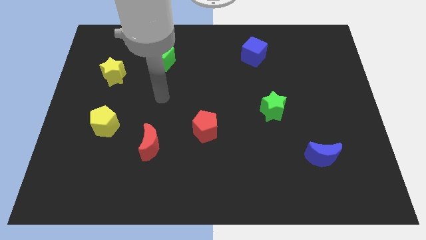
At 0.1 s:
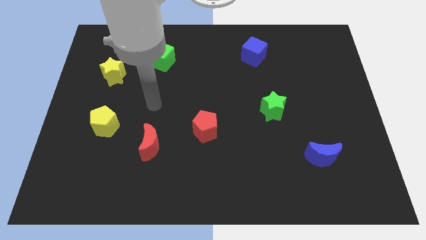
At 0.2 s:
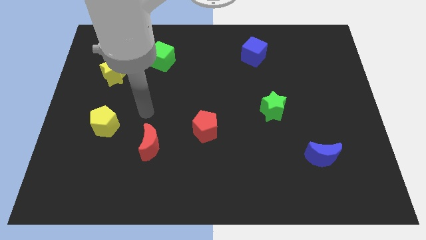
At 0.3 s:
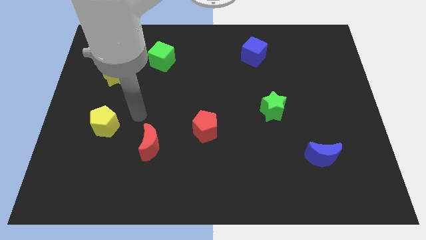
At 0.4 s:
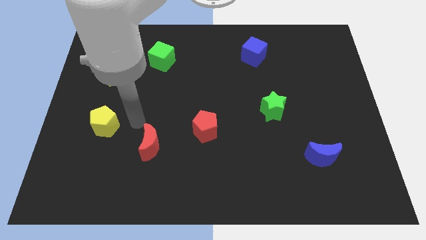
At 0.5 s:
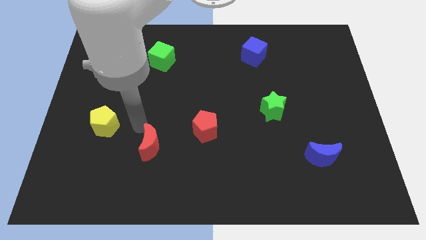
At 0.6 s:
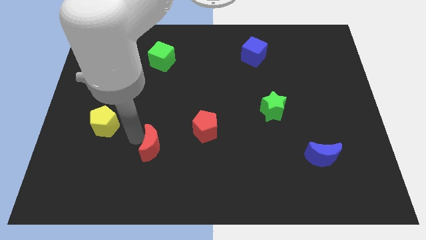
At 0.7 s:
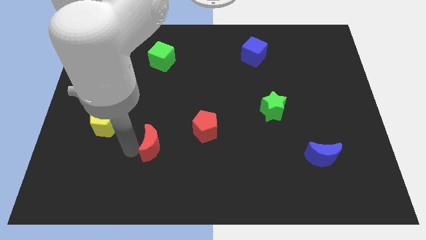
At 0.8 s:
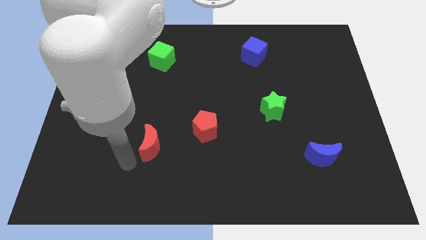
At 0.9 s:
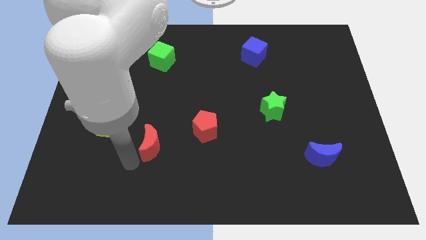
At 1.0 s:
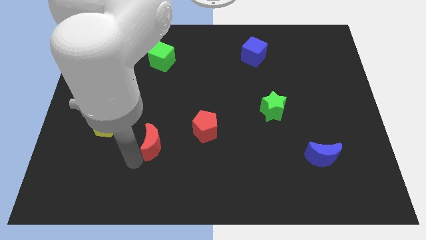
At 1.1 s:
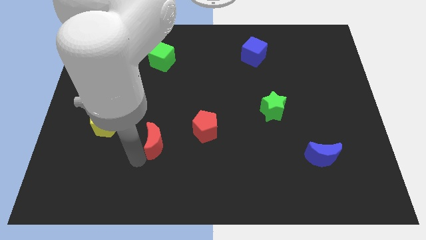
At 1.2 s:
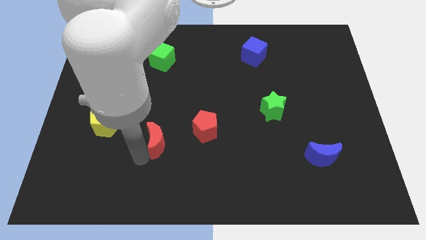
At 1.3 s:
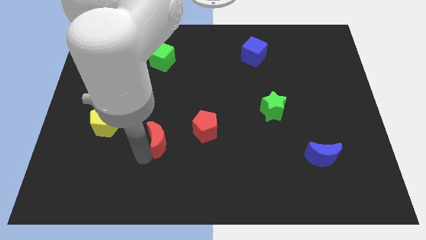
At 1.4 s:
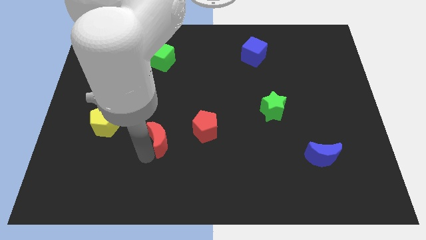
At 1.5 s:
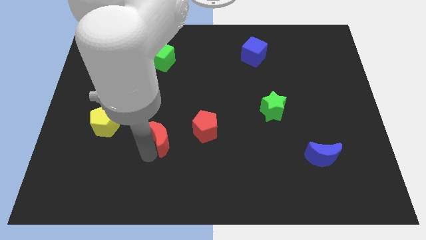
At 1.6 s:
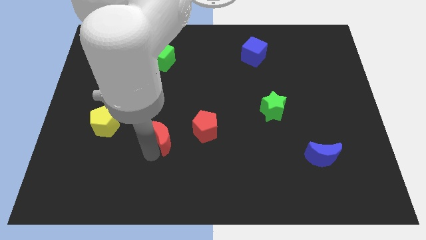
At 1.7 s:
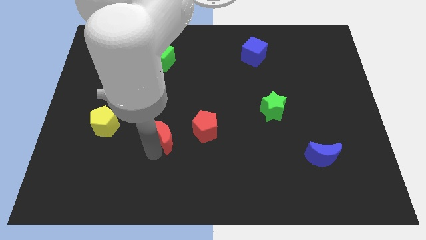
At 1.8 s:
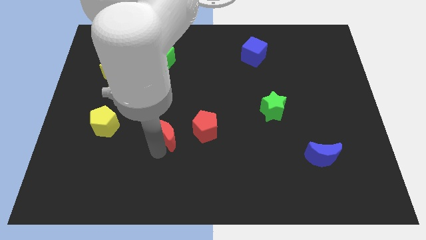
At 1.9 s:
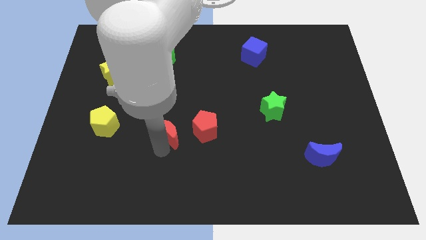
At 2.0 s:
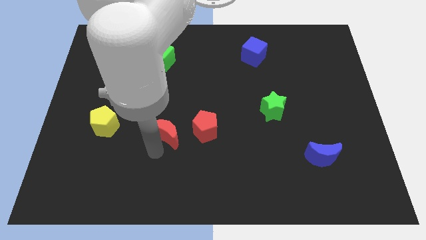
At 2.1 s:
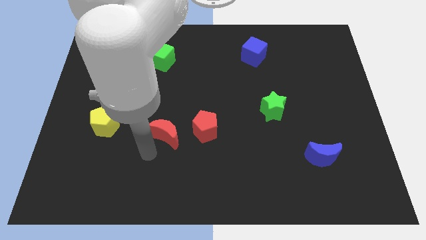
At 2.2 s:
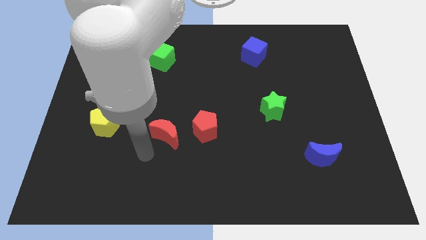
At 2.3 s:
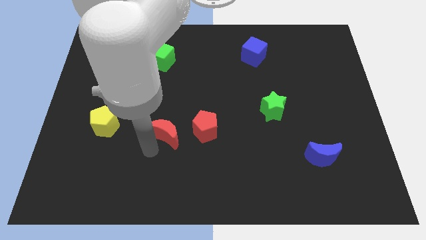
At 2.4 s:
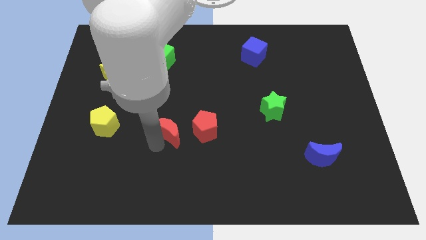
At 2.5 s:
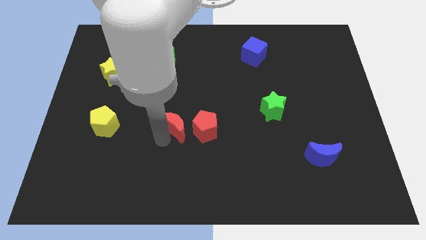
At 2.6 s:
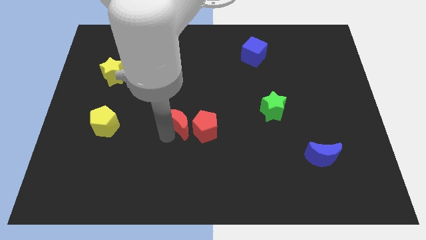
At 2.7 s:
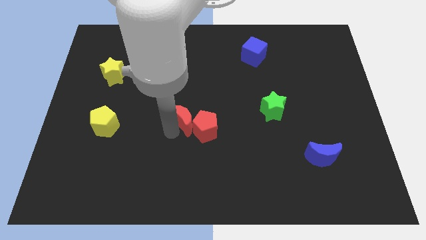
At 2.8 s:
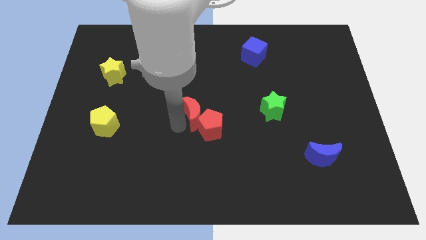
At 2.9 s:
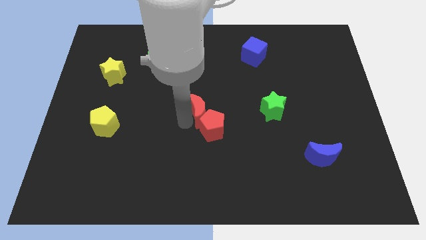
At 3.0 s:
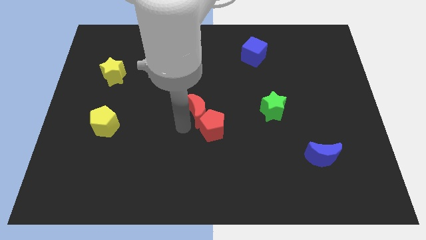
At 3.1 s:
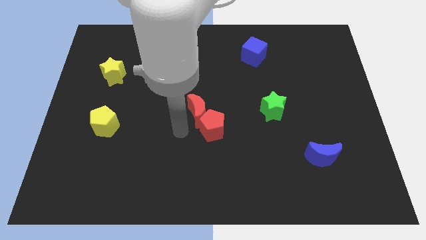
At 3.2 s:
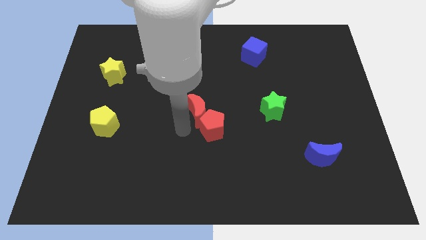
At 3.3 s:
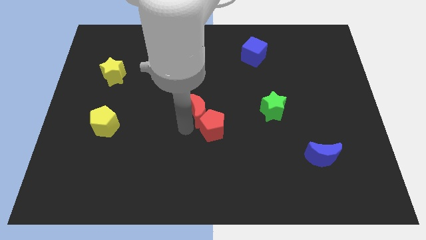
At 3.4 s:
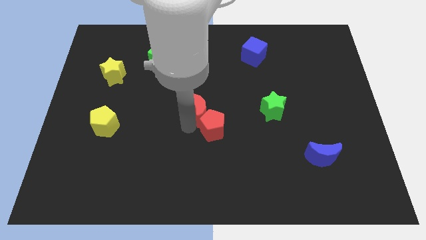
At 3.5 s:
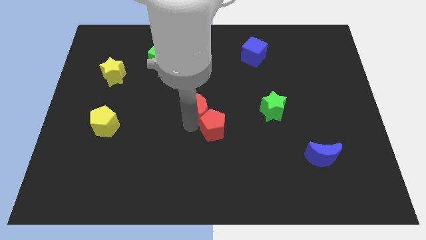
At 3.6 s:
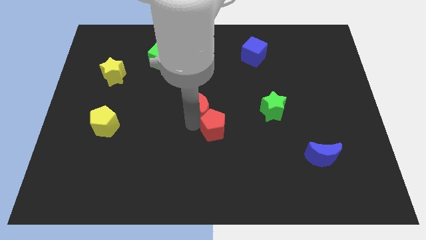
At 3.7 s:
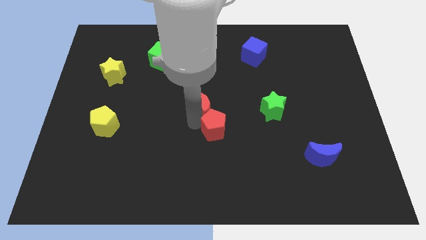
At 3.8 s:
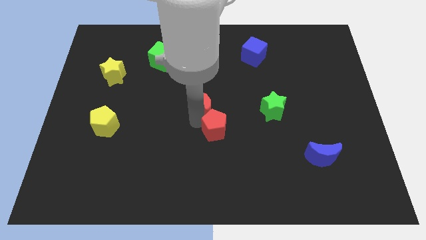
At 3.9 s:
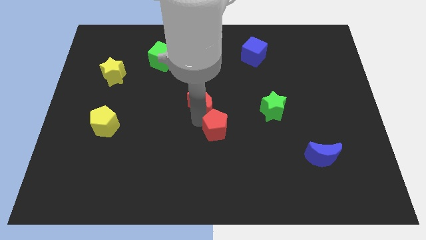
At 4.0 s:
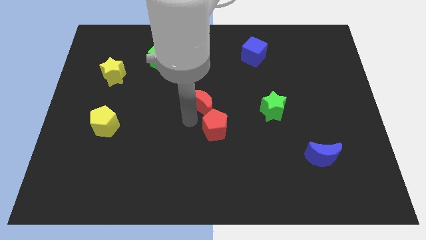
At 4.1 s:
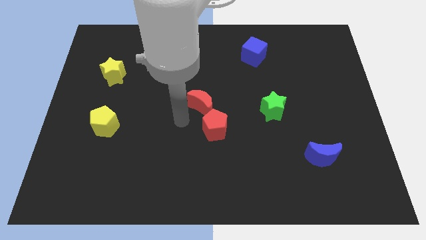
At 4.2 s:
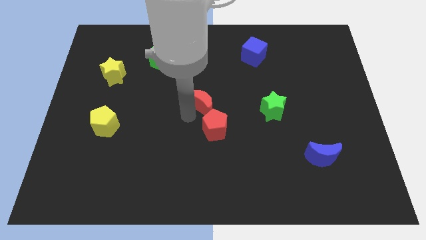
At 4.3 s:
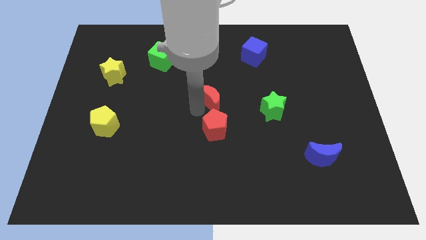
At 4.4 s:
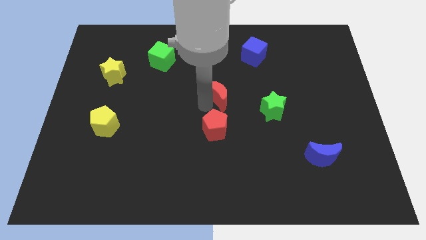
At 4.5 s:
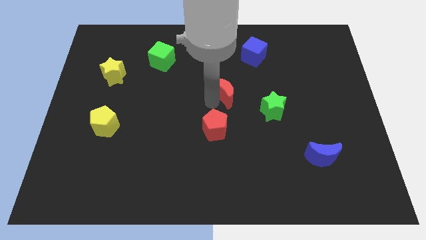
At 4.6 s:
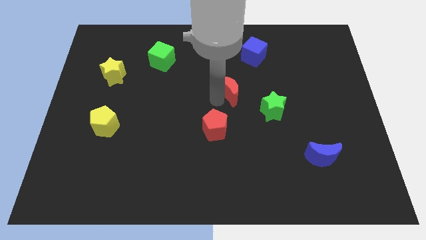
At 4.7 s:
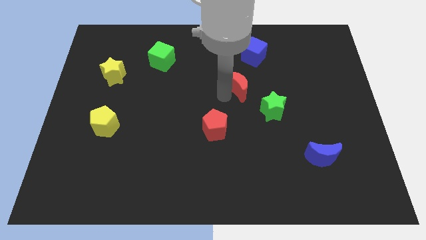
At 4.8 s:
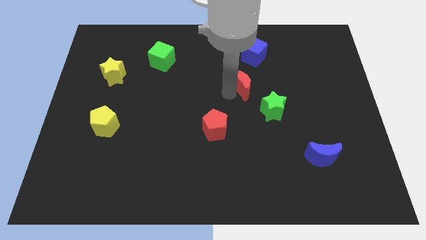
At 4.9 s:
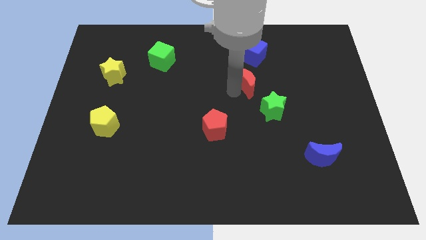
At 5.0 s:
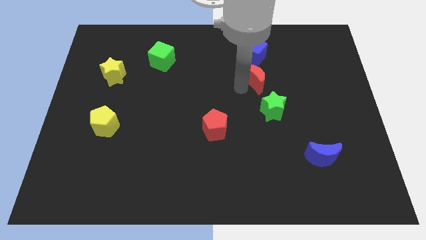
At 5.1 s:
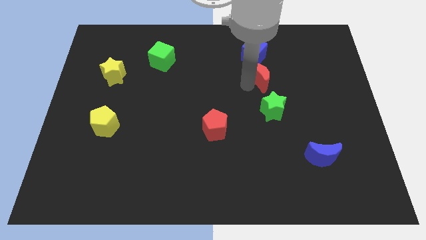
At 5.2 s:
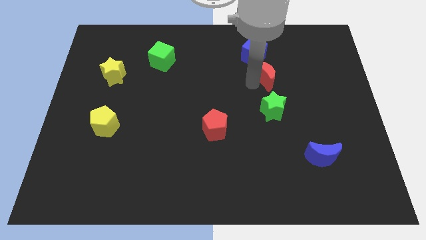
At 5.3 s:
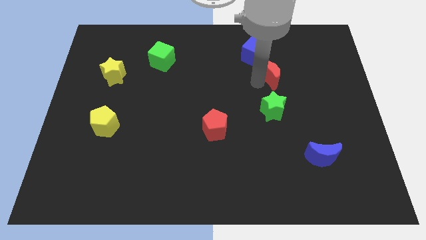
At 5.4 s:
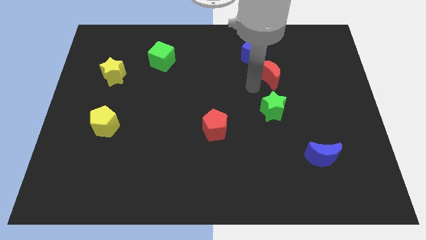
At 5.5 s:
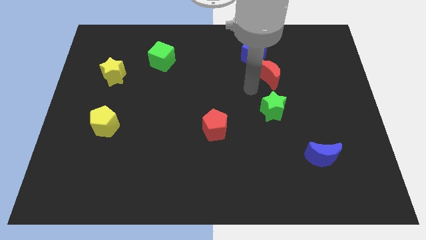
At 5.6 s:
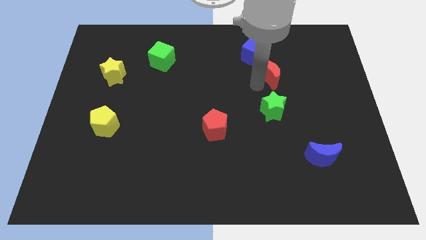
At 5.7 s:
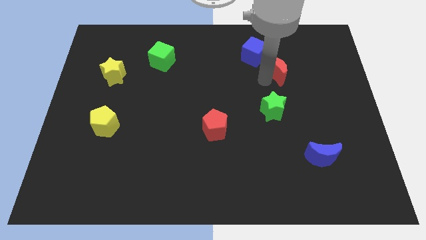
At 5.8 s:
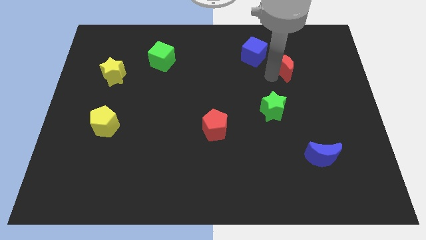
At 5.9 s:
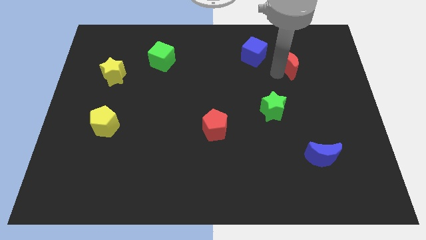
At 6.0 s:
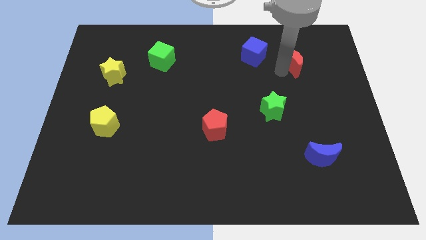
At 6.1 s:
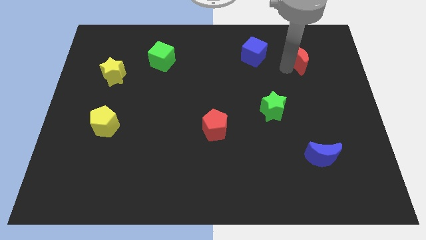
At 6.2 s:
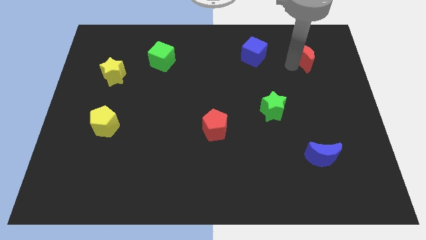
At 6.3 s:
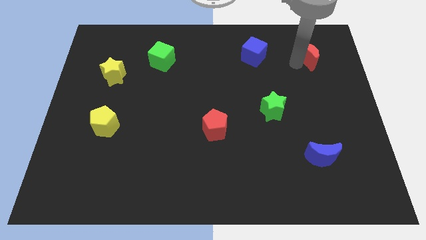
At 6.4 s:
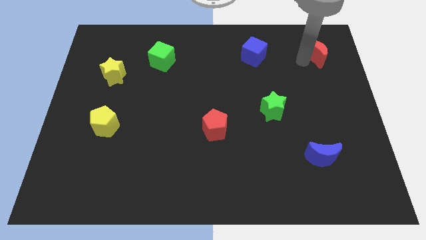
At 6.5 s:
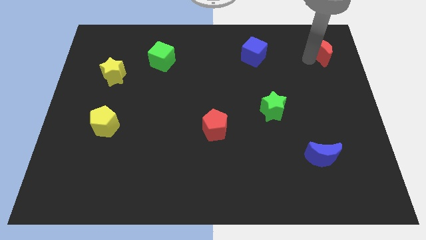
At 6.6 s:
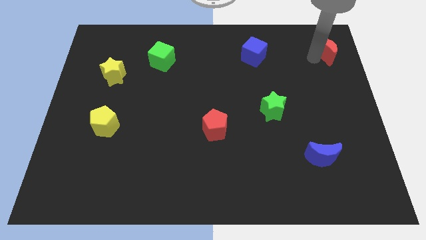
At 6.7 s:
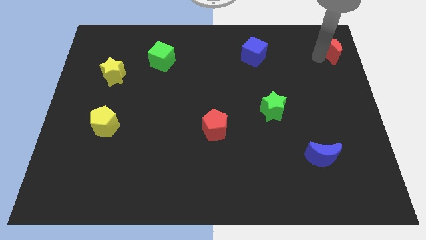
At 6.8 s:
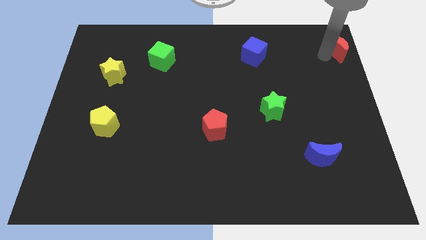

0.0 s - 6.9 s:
put the red moon to the top right corner

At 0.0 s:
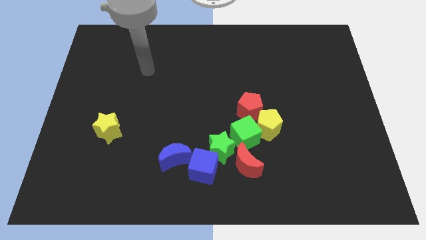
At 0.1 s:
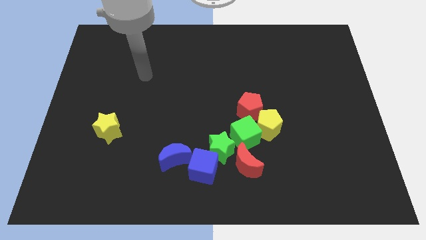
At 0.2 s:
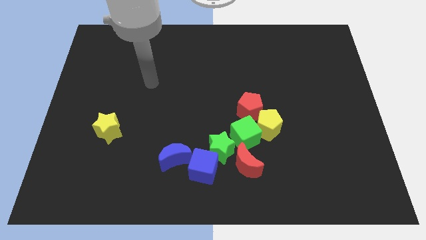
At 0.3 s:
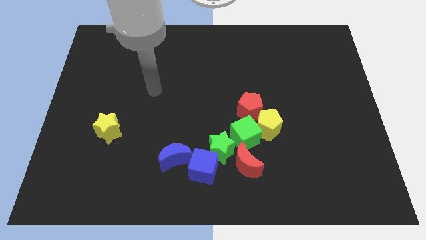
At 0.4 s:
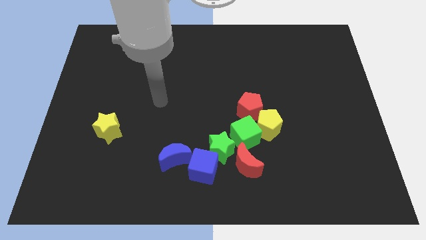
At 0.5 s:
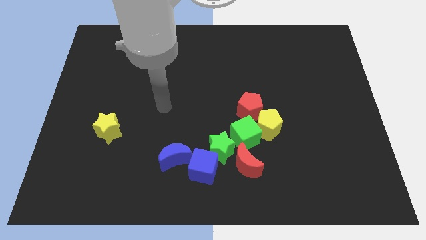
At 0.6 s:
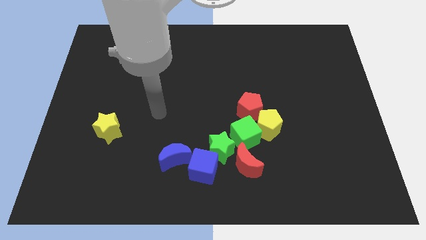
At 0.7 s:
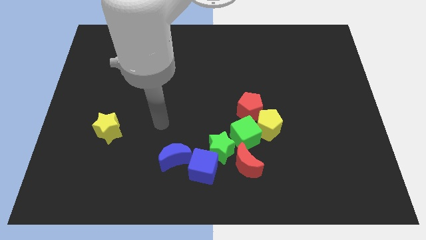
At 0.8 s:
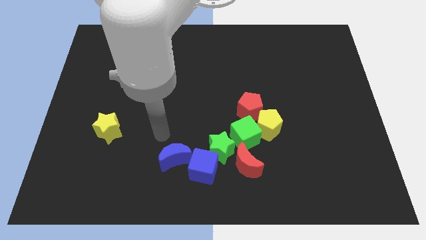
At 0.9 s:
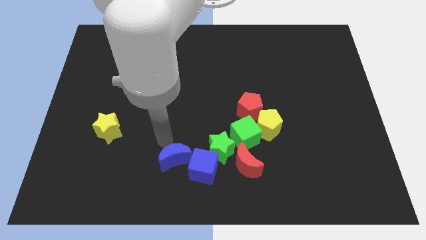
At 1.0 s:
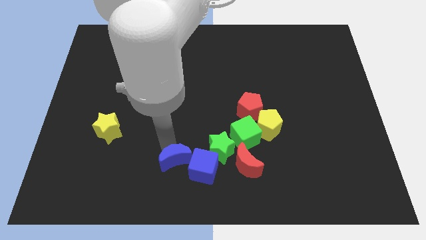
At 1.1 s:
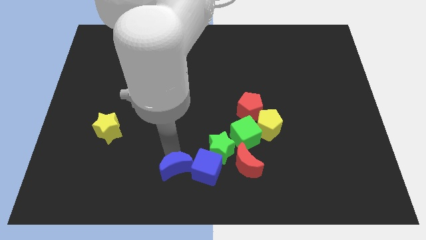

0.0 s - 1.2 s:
push the blue moon to the bottom
